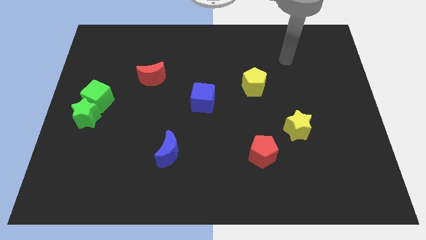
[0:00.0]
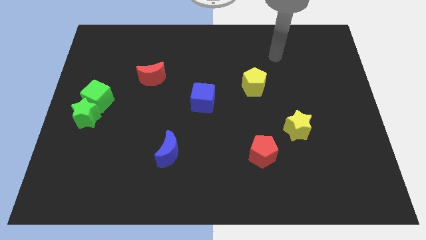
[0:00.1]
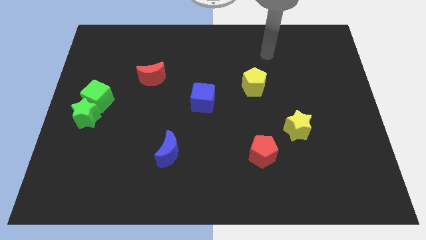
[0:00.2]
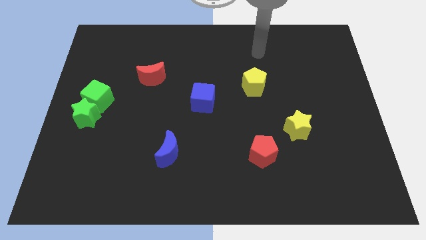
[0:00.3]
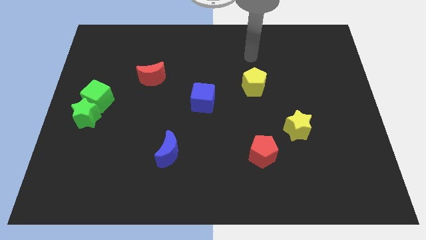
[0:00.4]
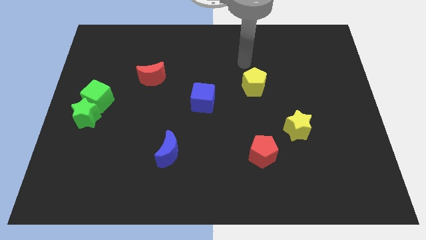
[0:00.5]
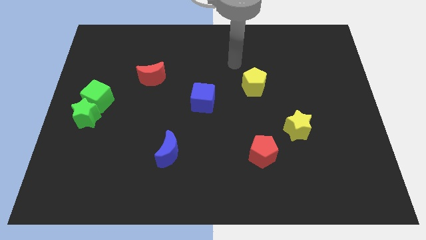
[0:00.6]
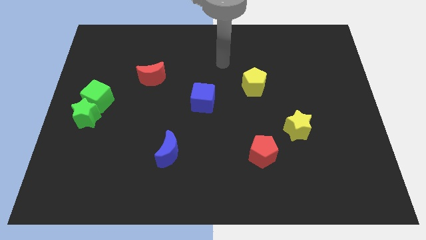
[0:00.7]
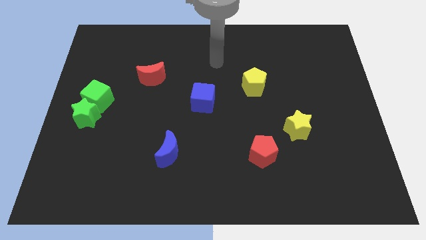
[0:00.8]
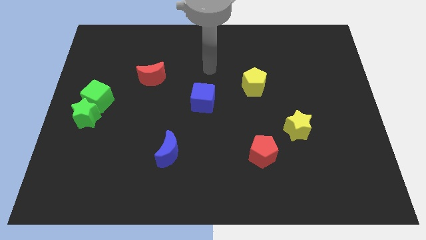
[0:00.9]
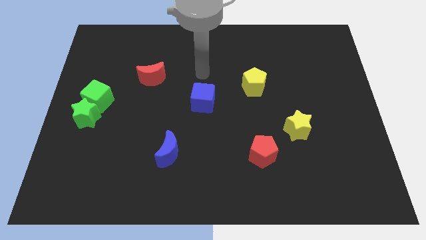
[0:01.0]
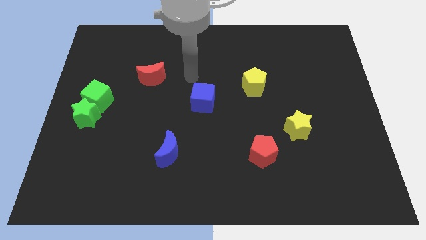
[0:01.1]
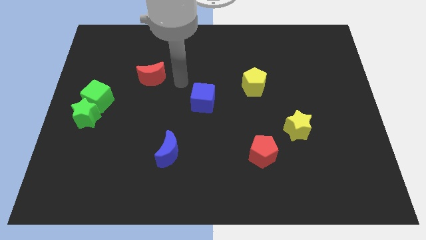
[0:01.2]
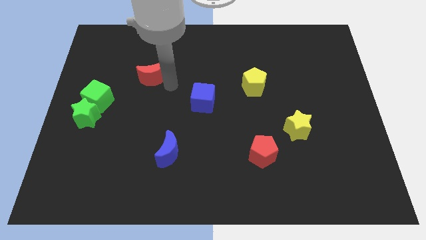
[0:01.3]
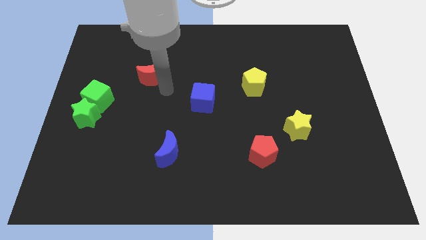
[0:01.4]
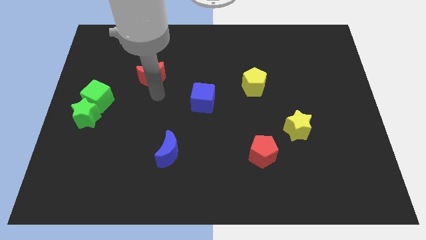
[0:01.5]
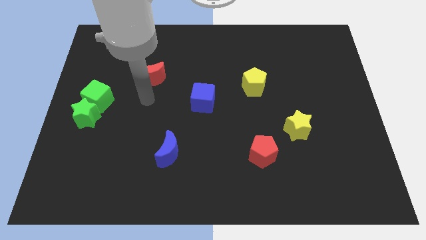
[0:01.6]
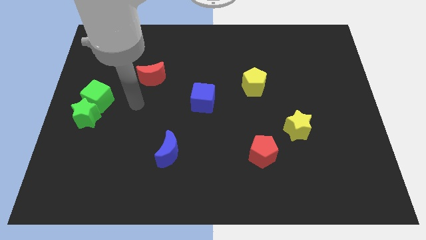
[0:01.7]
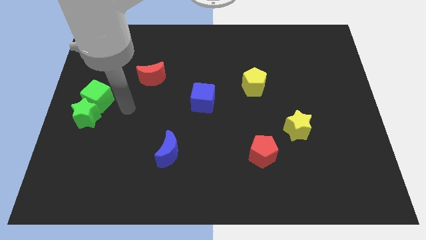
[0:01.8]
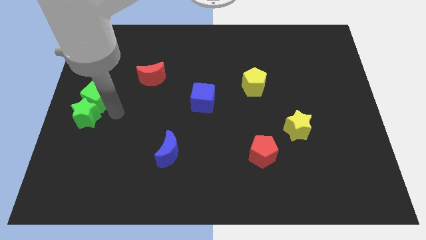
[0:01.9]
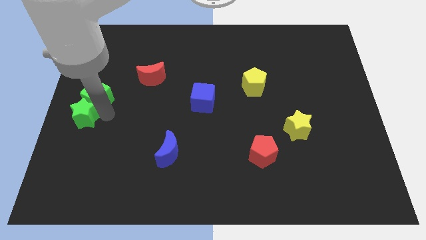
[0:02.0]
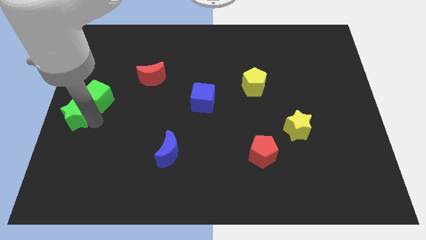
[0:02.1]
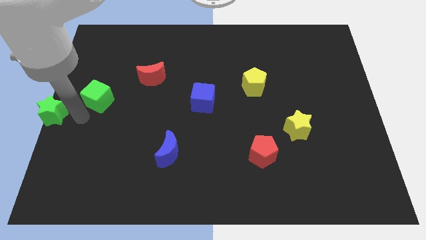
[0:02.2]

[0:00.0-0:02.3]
move the green cube away from the green star

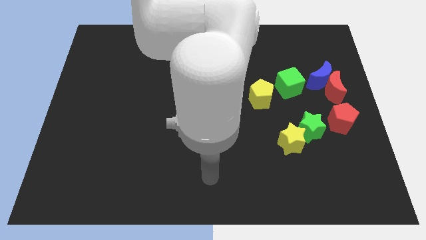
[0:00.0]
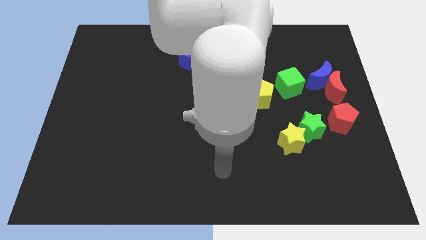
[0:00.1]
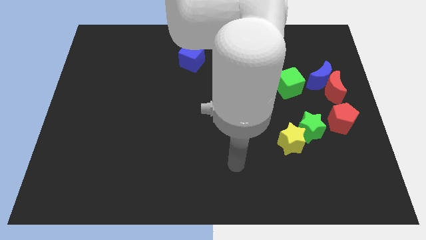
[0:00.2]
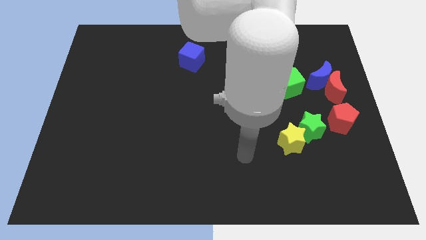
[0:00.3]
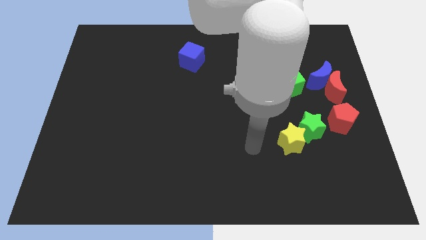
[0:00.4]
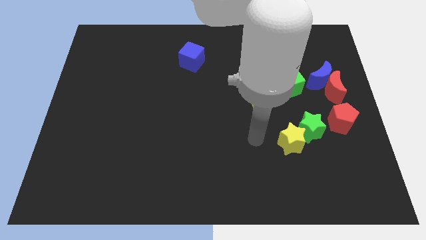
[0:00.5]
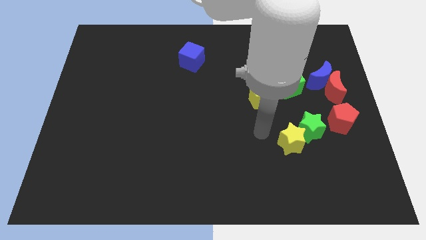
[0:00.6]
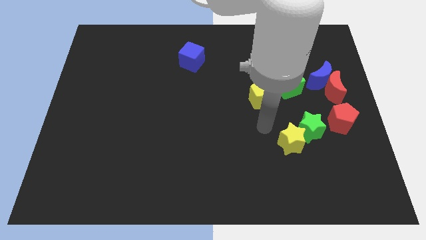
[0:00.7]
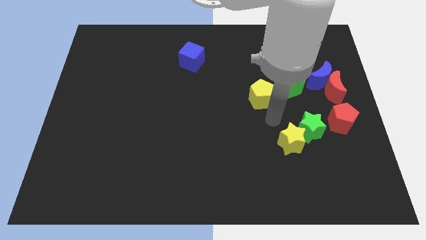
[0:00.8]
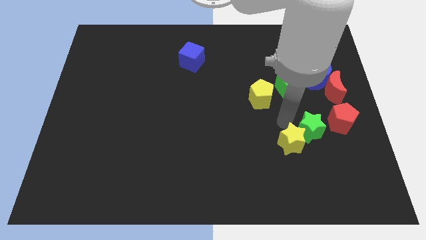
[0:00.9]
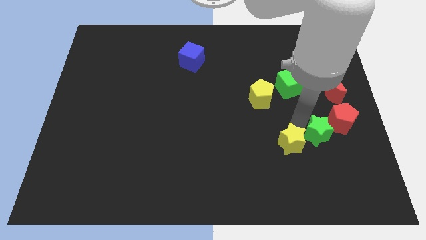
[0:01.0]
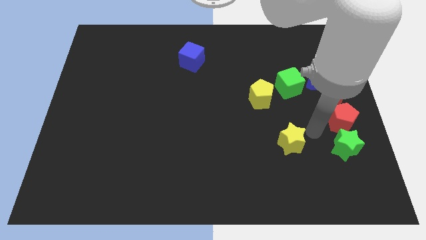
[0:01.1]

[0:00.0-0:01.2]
pull the yellow star apart from the green star

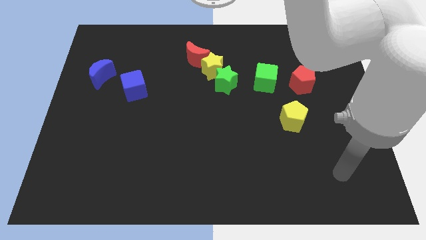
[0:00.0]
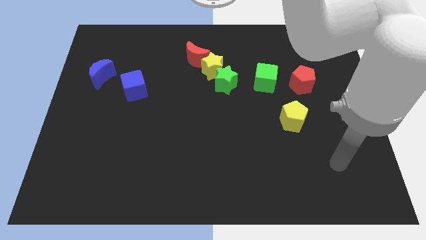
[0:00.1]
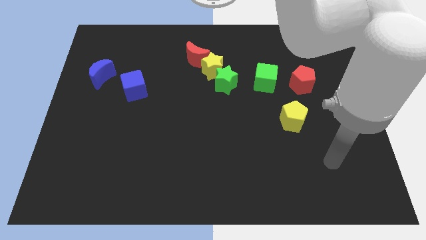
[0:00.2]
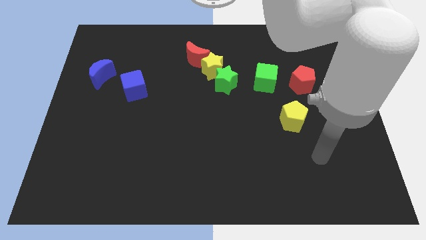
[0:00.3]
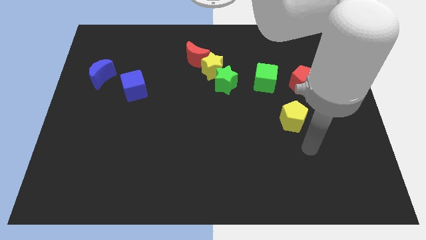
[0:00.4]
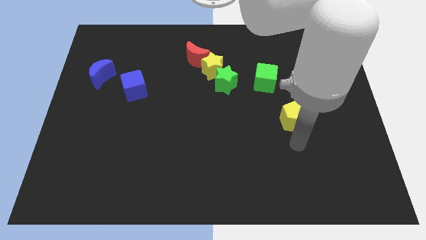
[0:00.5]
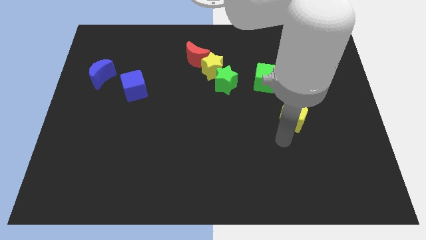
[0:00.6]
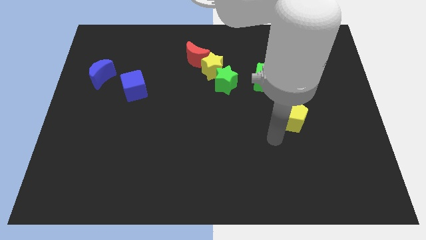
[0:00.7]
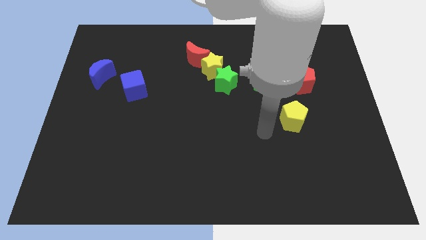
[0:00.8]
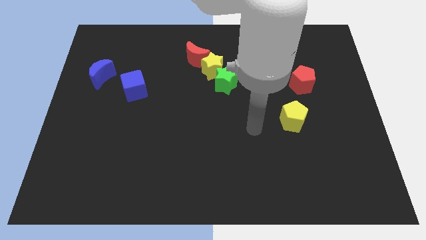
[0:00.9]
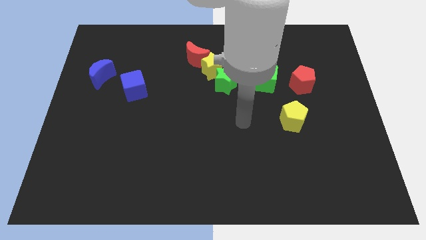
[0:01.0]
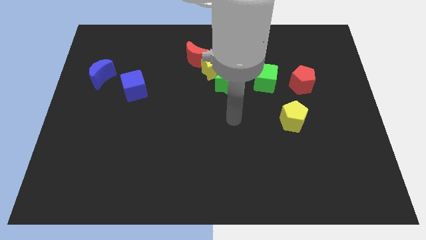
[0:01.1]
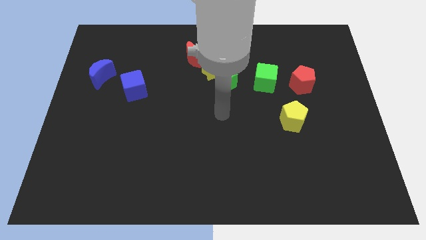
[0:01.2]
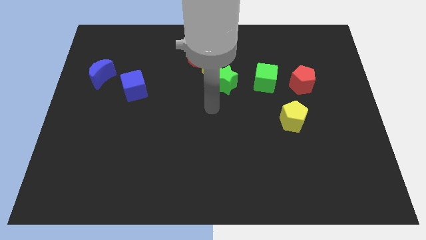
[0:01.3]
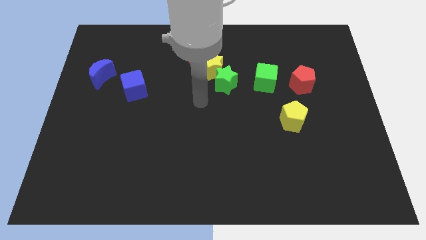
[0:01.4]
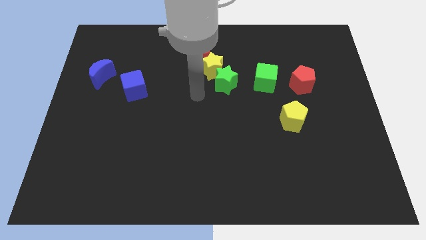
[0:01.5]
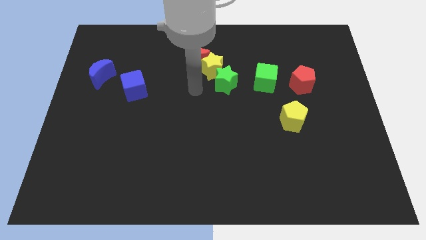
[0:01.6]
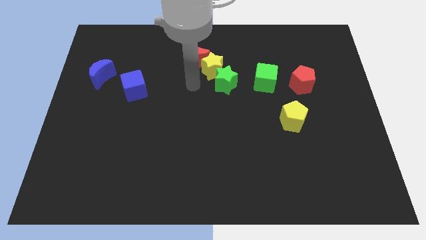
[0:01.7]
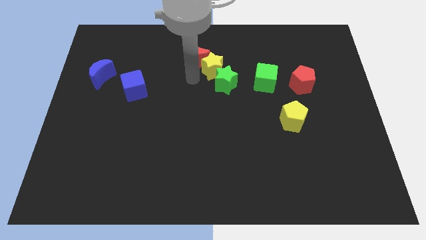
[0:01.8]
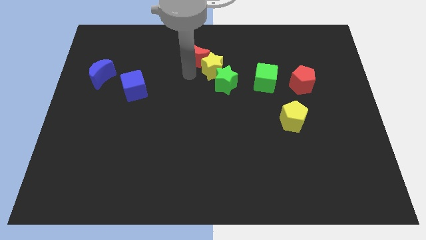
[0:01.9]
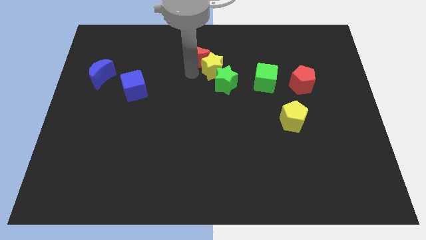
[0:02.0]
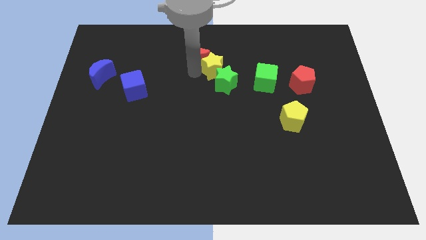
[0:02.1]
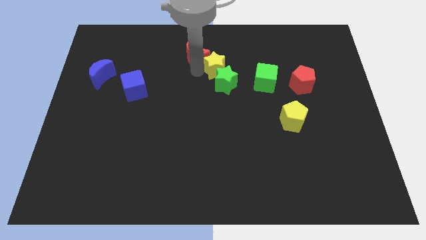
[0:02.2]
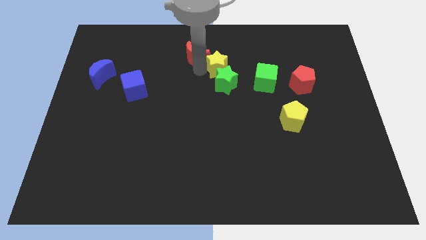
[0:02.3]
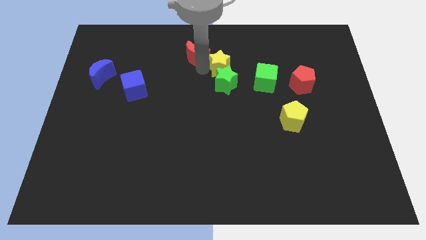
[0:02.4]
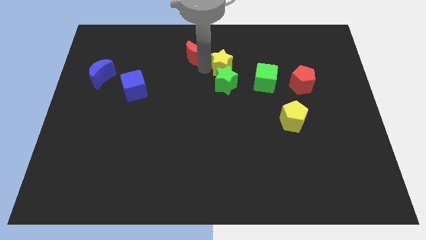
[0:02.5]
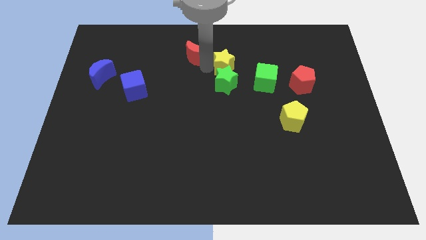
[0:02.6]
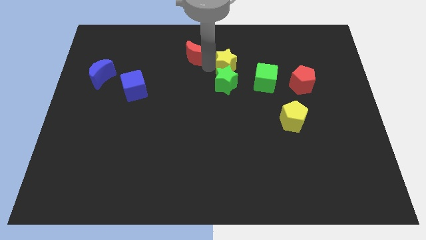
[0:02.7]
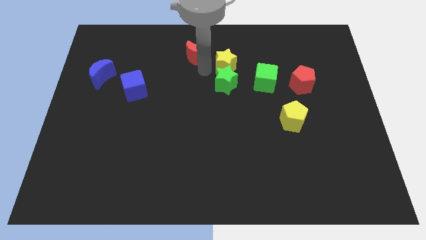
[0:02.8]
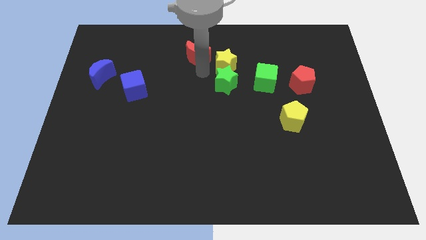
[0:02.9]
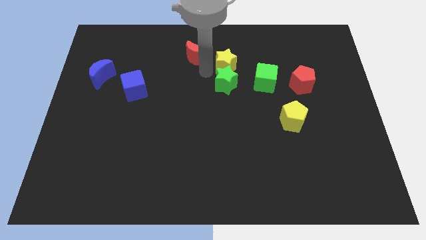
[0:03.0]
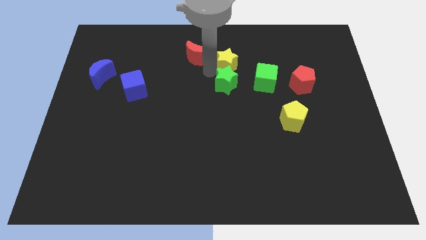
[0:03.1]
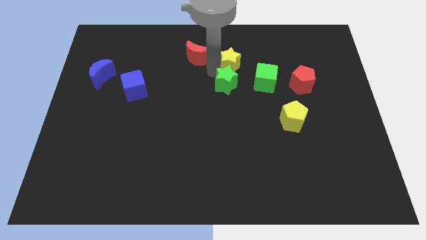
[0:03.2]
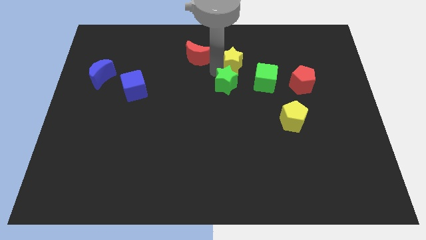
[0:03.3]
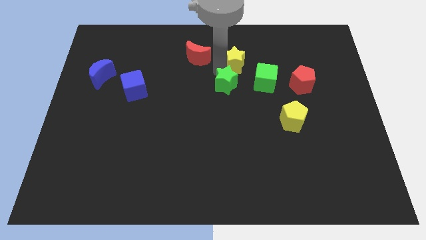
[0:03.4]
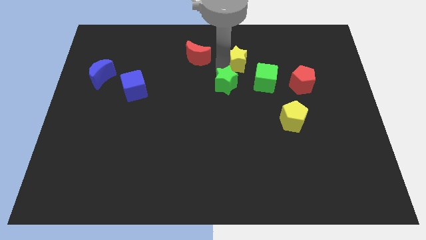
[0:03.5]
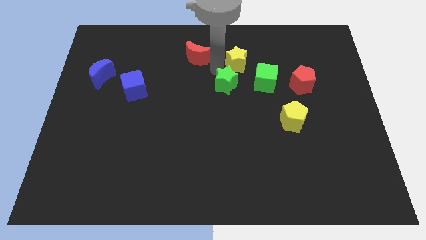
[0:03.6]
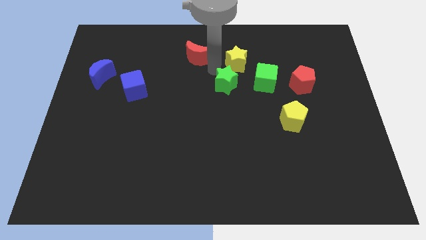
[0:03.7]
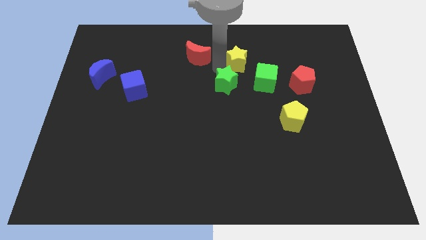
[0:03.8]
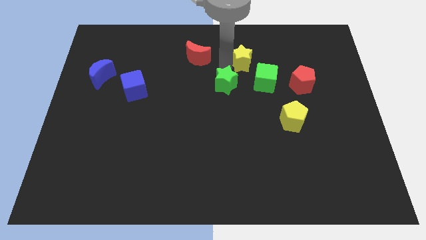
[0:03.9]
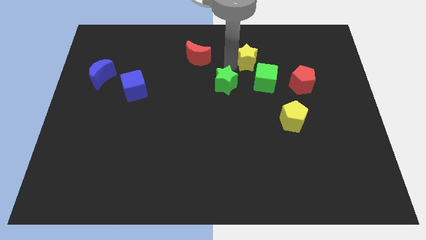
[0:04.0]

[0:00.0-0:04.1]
move the yellow star away from the green star and red moon

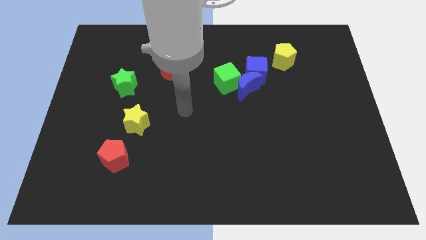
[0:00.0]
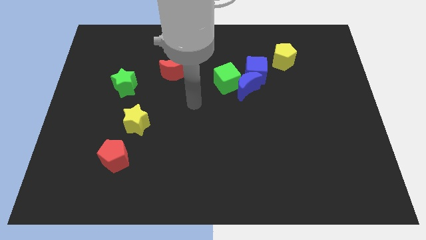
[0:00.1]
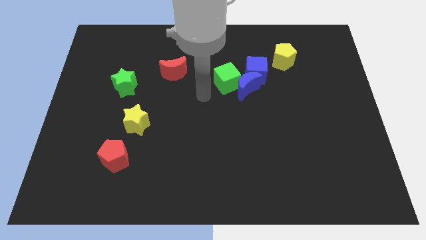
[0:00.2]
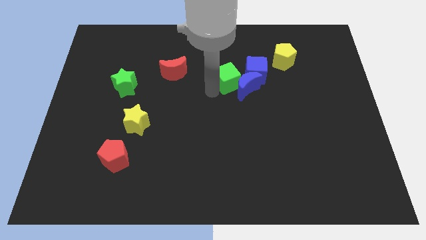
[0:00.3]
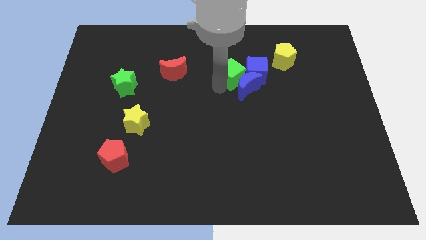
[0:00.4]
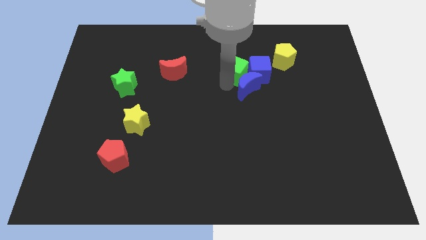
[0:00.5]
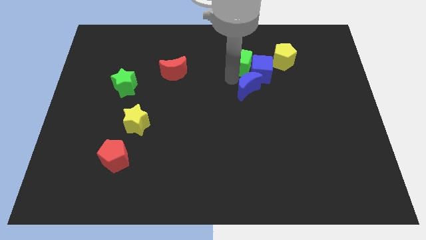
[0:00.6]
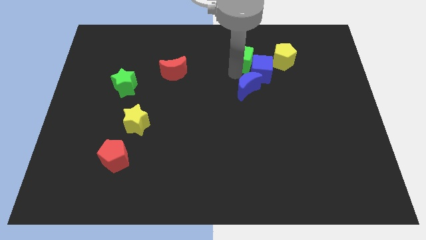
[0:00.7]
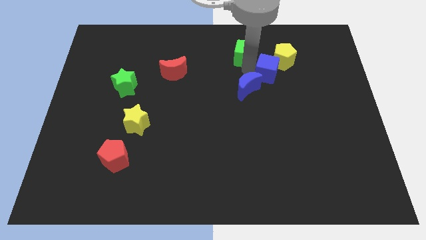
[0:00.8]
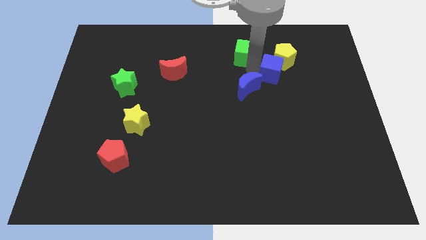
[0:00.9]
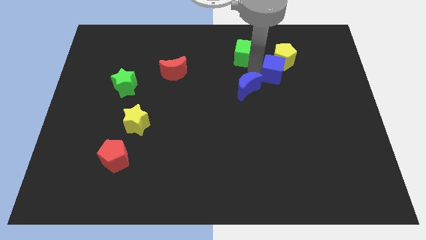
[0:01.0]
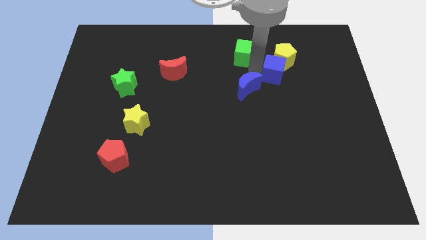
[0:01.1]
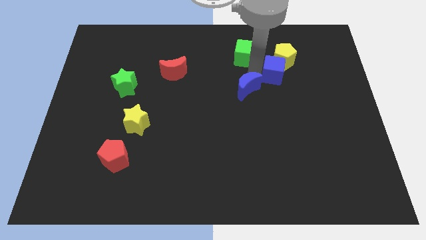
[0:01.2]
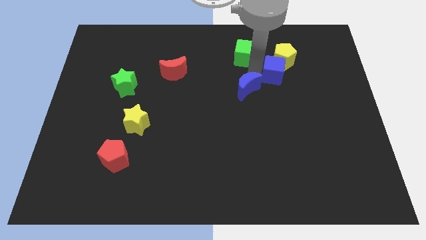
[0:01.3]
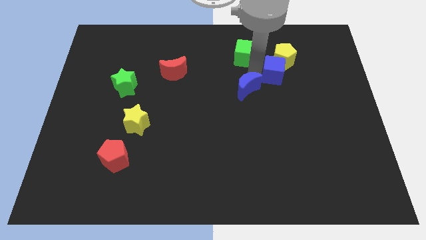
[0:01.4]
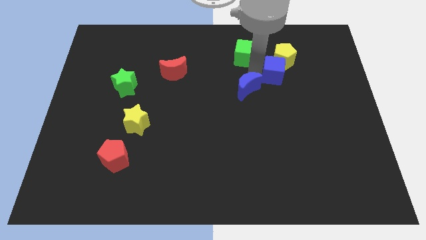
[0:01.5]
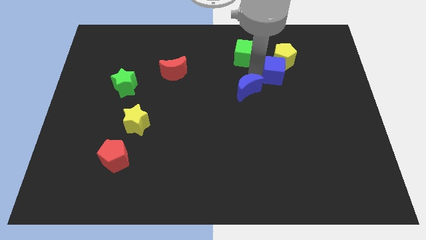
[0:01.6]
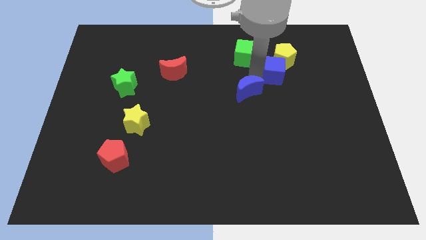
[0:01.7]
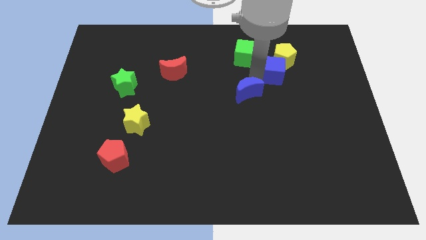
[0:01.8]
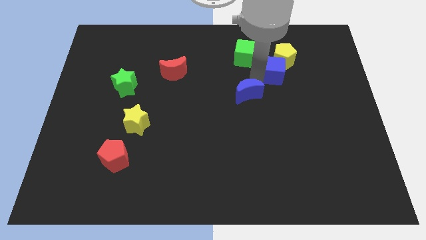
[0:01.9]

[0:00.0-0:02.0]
separate the blue moon from the green cube and blue cube
